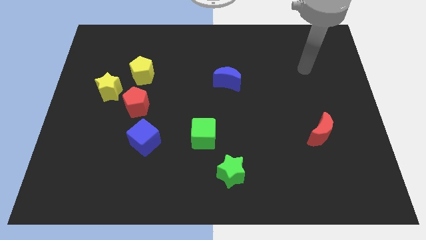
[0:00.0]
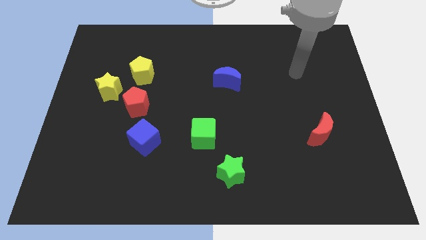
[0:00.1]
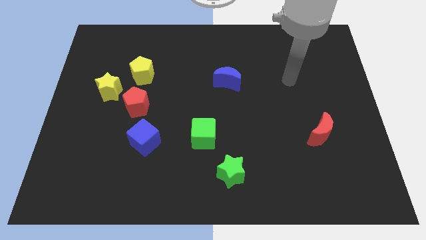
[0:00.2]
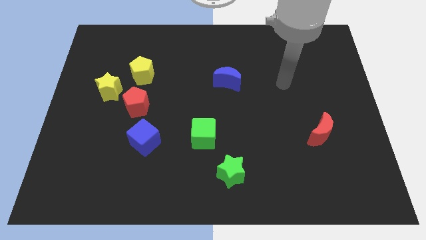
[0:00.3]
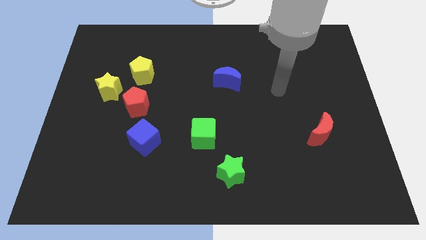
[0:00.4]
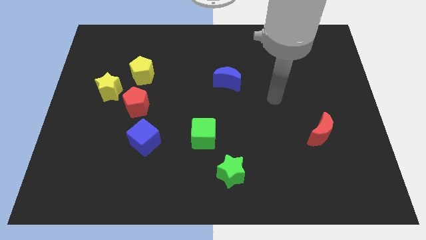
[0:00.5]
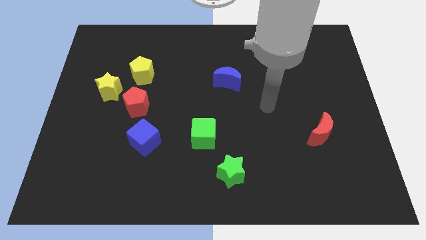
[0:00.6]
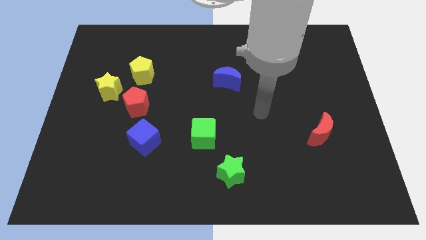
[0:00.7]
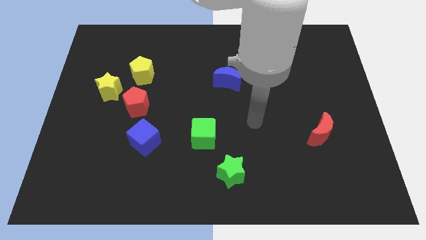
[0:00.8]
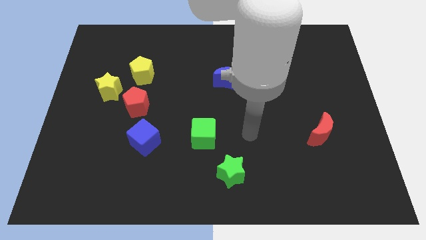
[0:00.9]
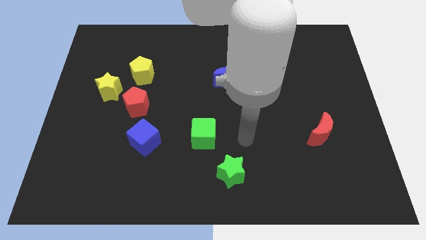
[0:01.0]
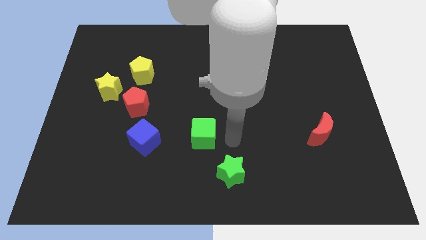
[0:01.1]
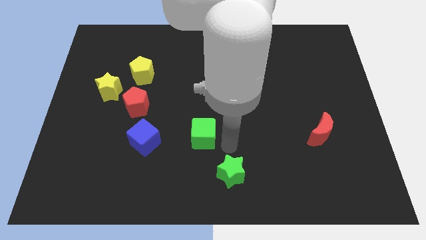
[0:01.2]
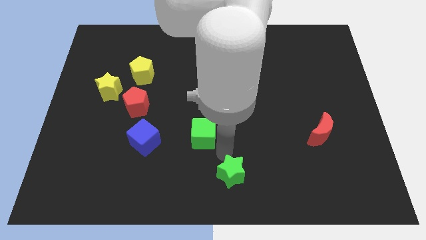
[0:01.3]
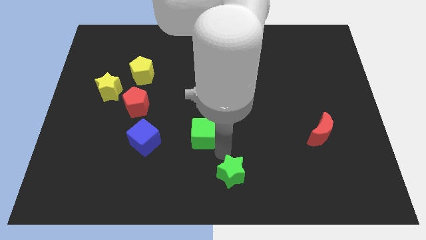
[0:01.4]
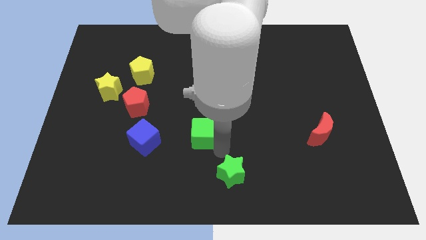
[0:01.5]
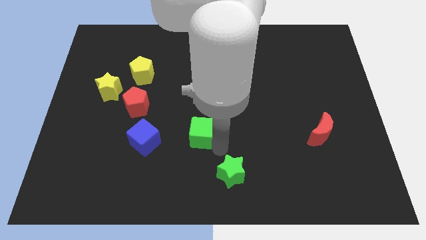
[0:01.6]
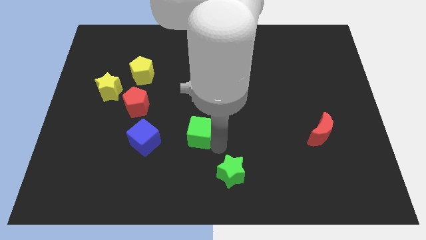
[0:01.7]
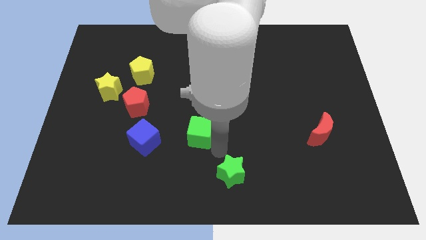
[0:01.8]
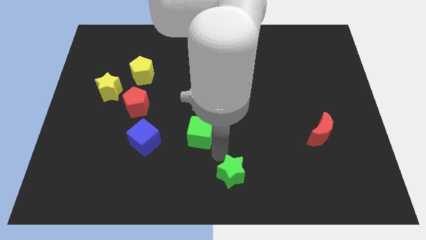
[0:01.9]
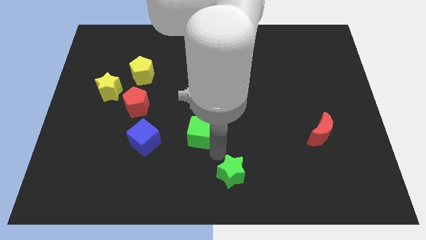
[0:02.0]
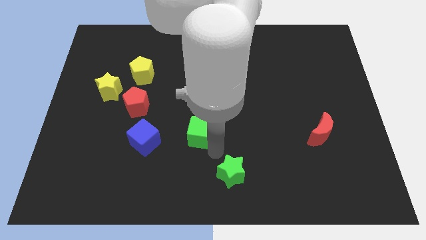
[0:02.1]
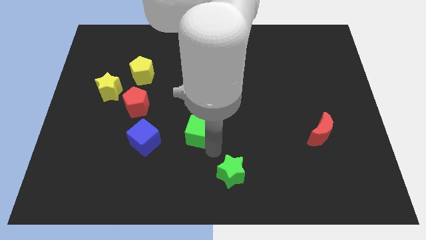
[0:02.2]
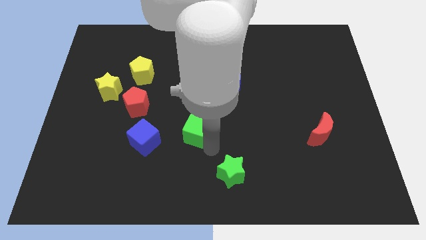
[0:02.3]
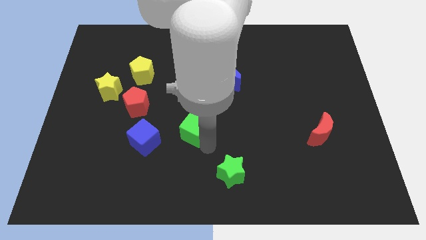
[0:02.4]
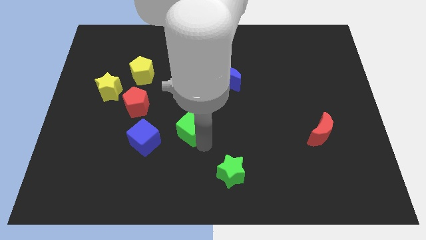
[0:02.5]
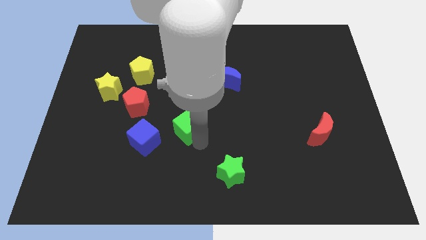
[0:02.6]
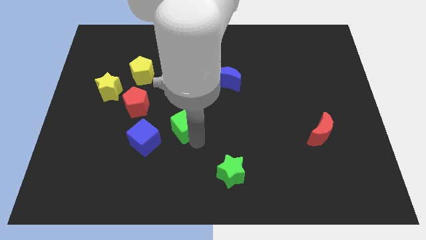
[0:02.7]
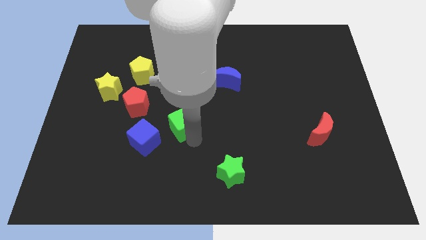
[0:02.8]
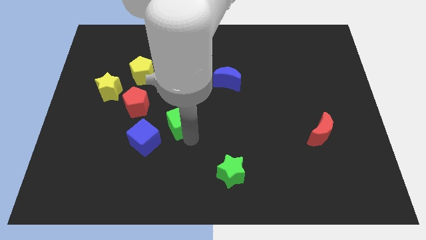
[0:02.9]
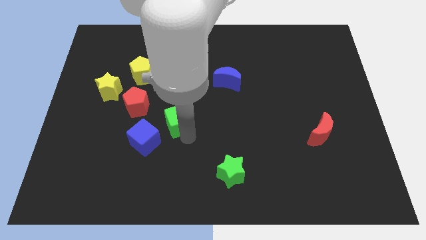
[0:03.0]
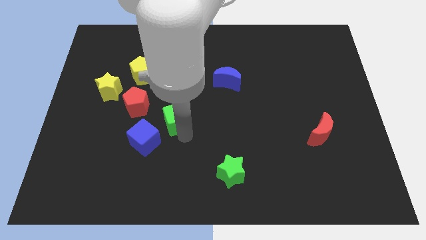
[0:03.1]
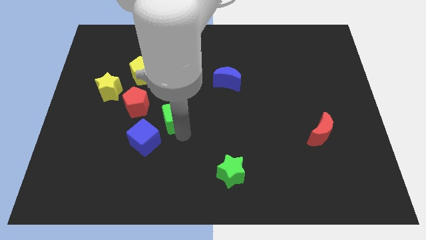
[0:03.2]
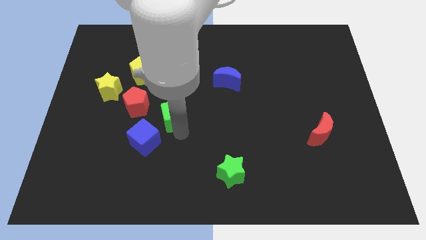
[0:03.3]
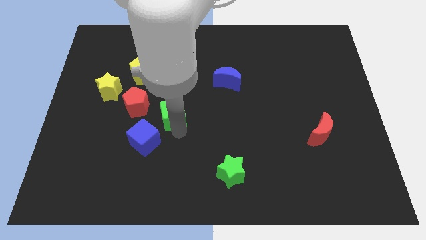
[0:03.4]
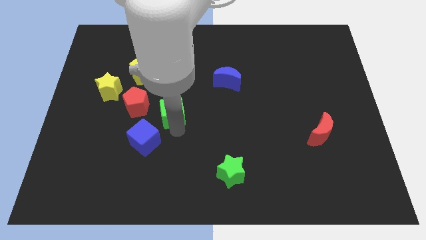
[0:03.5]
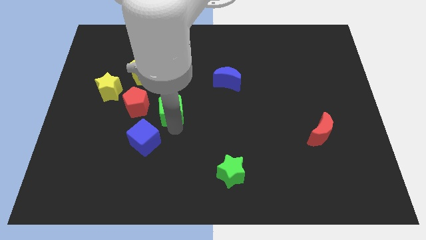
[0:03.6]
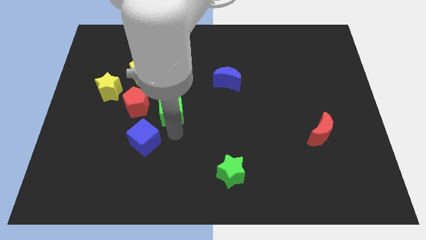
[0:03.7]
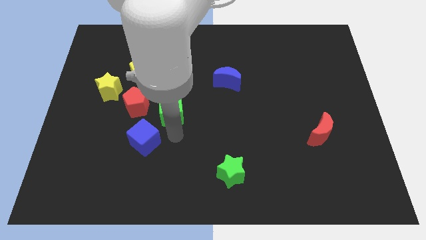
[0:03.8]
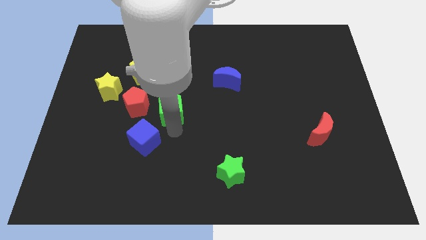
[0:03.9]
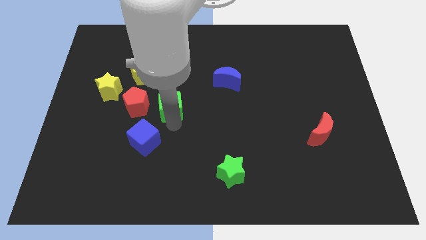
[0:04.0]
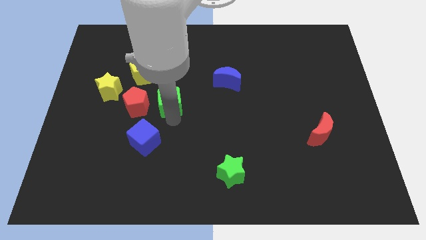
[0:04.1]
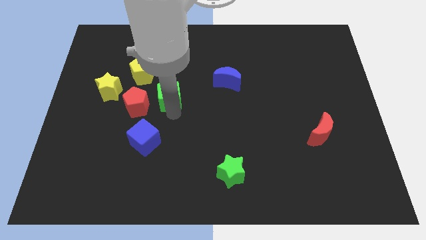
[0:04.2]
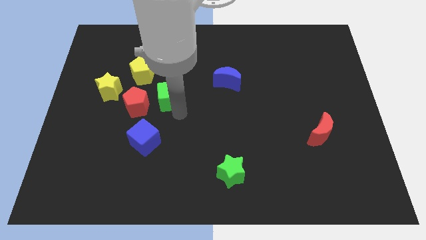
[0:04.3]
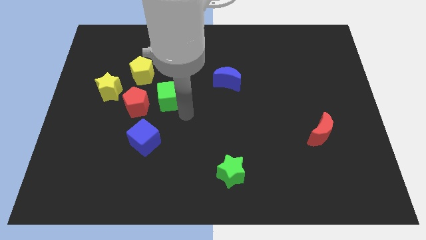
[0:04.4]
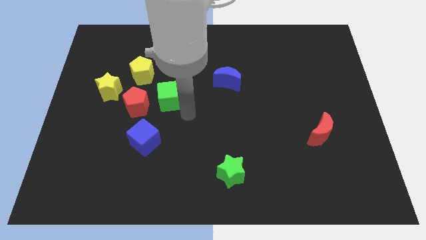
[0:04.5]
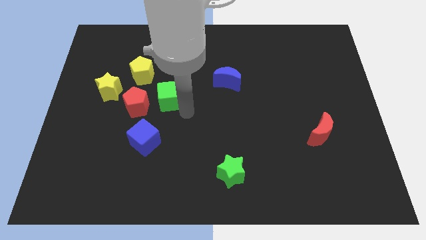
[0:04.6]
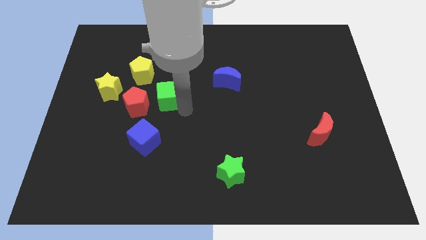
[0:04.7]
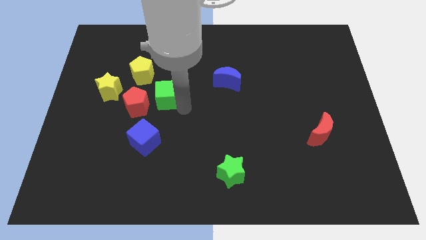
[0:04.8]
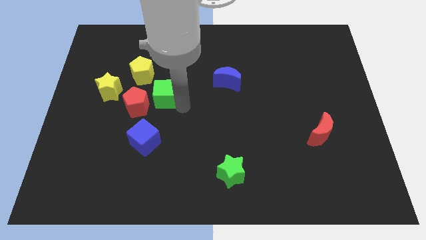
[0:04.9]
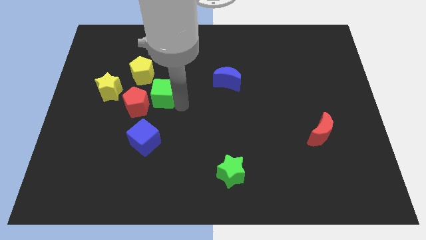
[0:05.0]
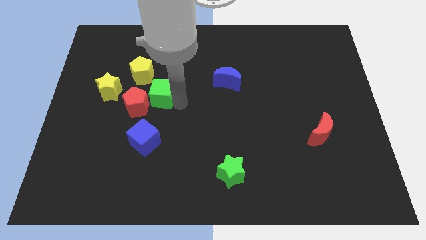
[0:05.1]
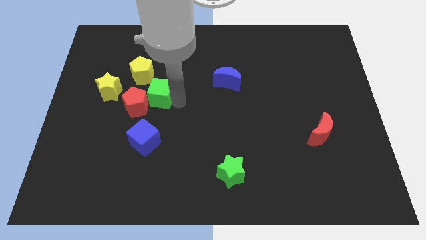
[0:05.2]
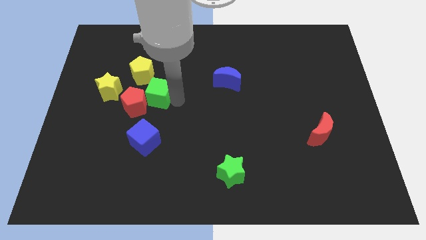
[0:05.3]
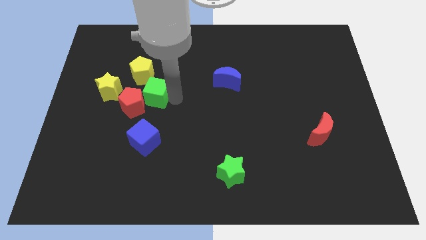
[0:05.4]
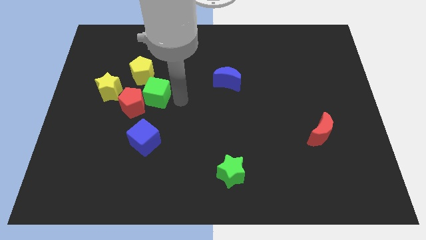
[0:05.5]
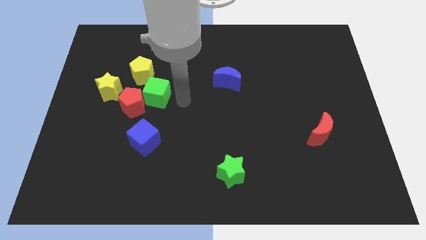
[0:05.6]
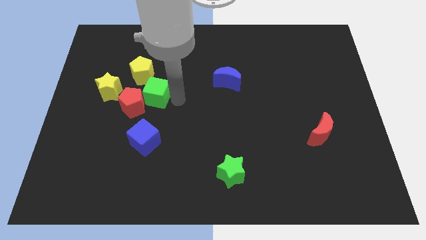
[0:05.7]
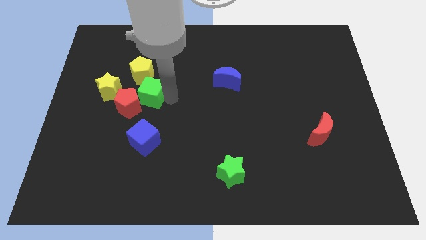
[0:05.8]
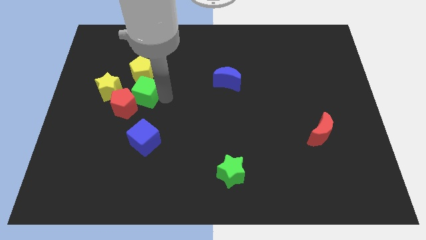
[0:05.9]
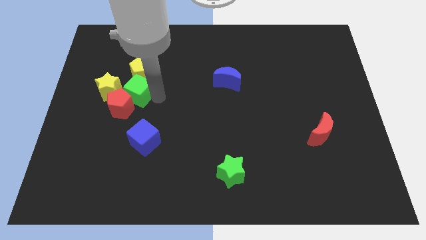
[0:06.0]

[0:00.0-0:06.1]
push the green cube up and to the left diagonally

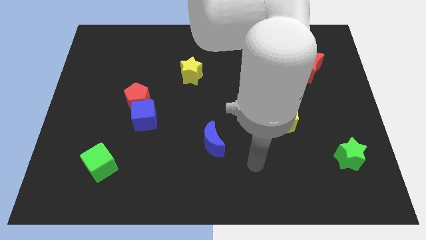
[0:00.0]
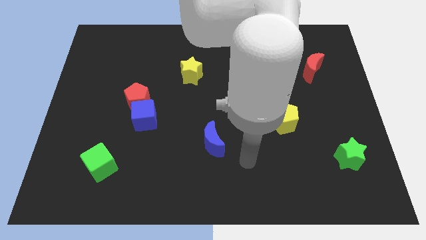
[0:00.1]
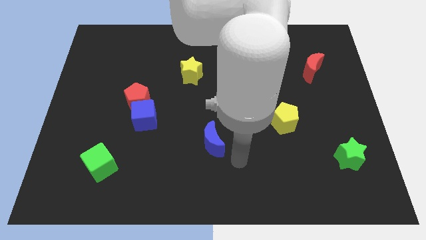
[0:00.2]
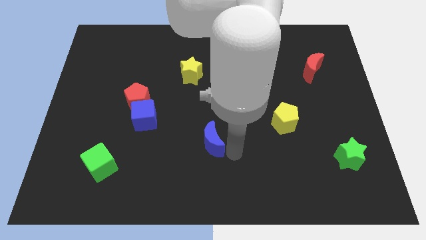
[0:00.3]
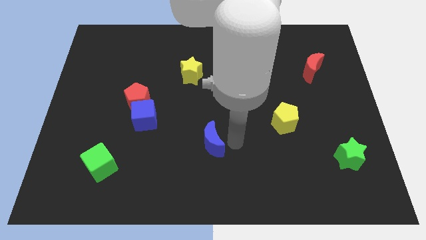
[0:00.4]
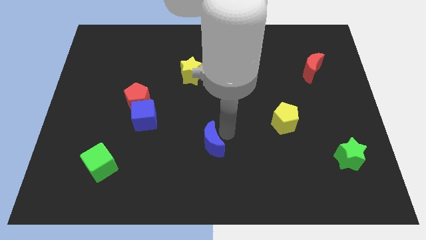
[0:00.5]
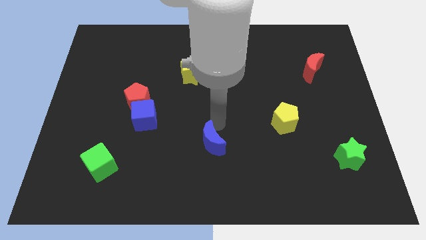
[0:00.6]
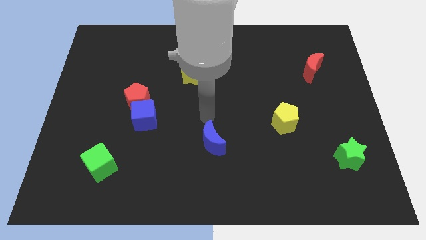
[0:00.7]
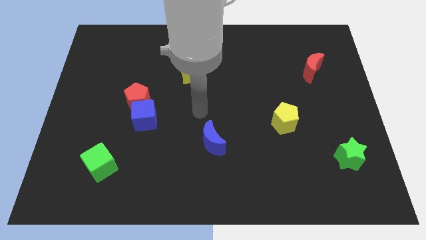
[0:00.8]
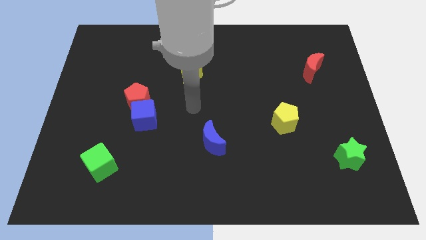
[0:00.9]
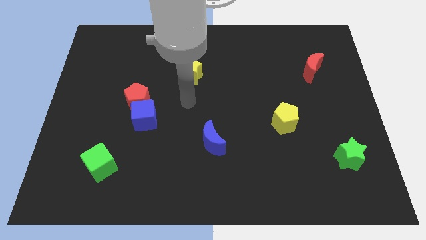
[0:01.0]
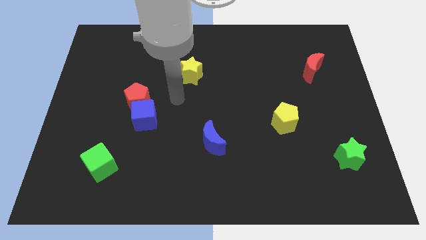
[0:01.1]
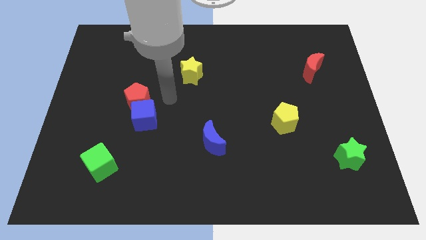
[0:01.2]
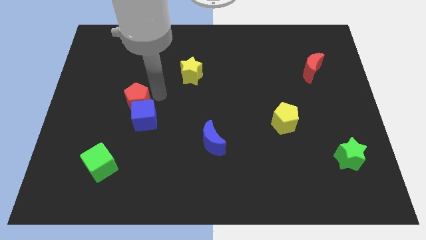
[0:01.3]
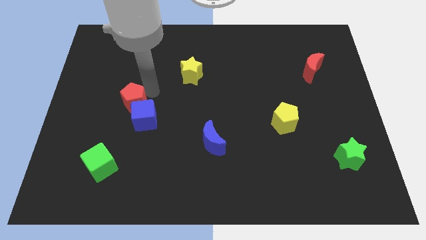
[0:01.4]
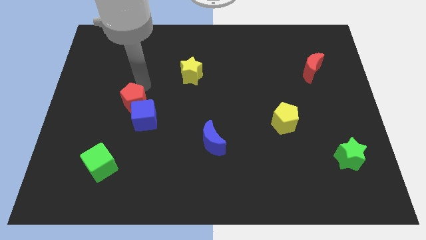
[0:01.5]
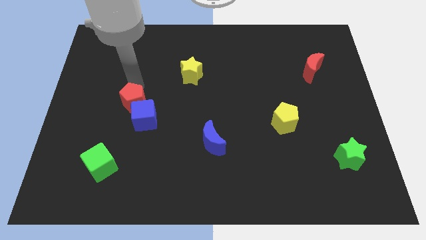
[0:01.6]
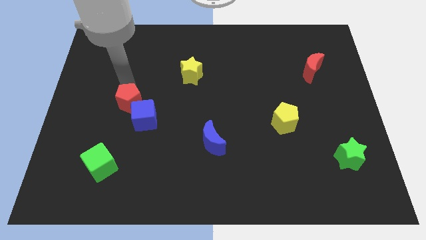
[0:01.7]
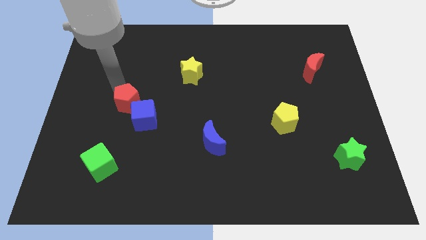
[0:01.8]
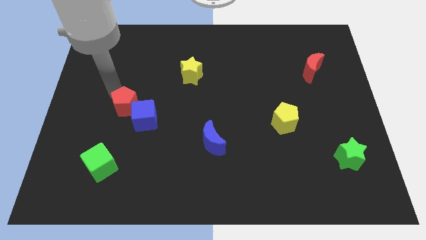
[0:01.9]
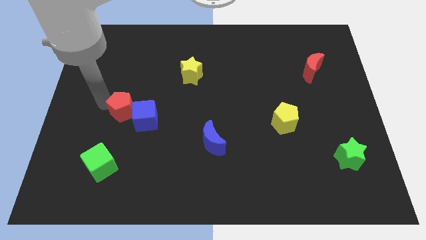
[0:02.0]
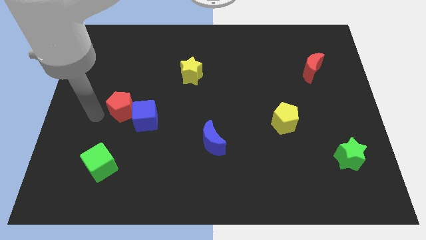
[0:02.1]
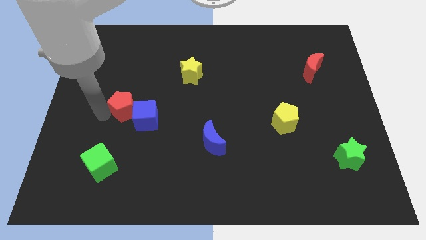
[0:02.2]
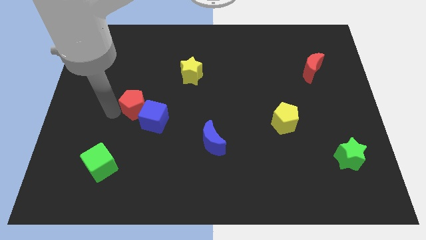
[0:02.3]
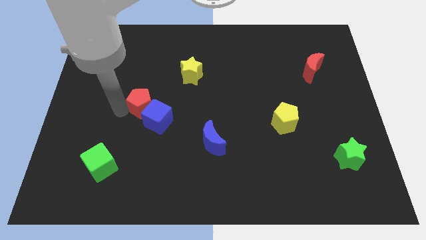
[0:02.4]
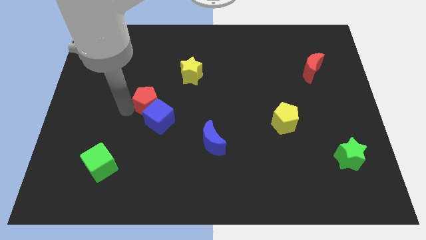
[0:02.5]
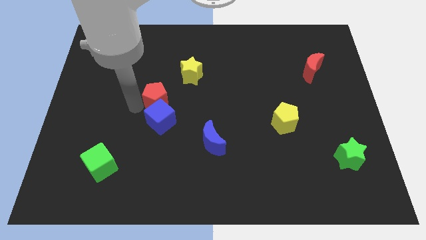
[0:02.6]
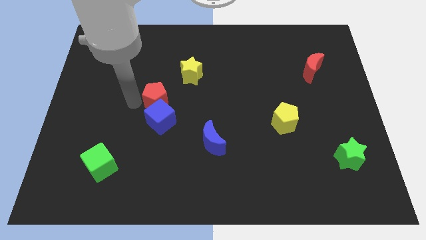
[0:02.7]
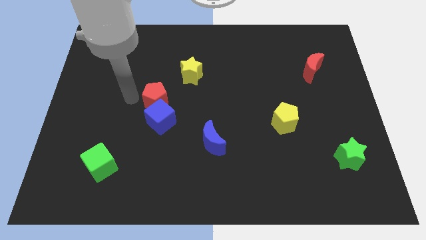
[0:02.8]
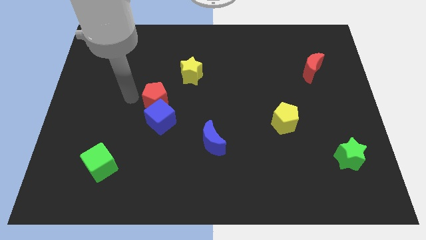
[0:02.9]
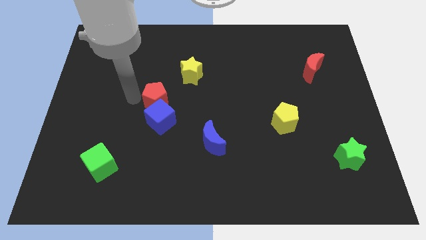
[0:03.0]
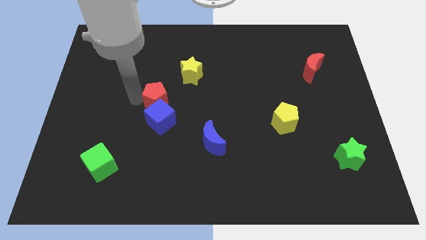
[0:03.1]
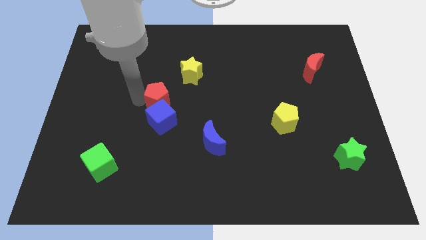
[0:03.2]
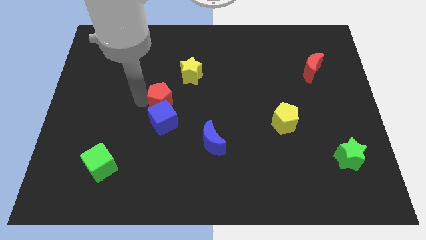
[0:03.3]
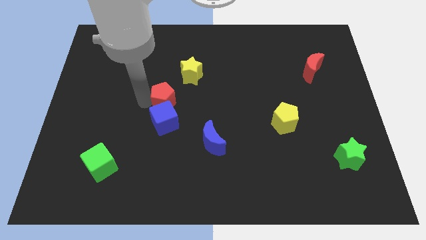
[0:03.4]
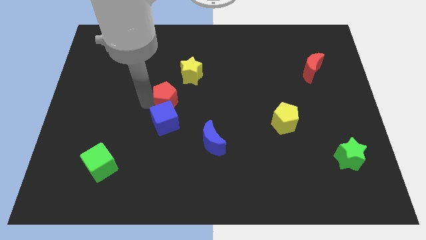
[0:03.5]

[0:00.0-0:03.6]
slightly slide the red pentagon to the right
